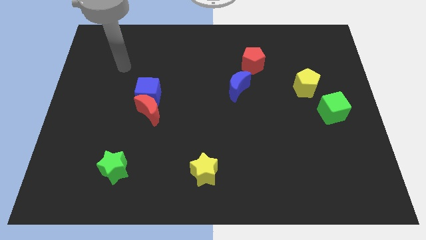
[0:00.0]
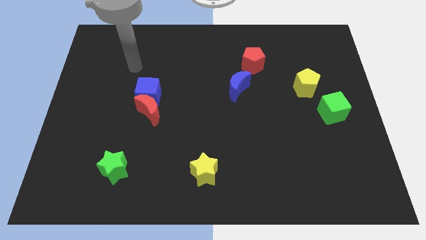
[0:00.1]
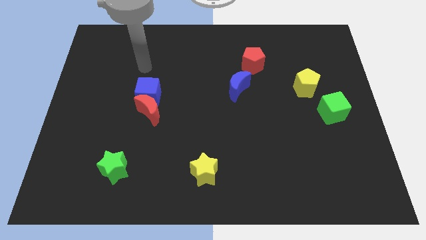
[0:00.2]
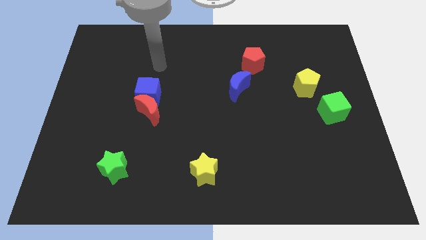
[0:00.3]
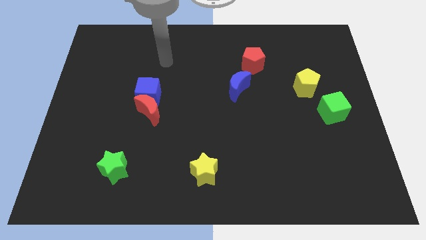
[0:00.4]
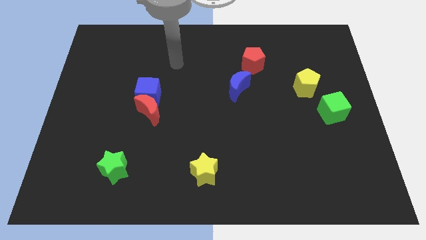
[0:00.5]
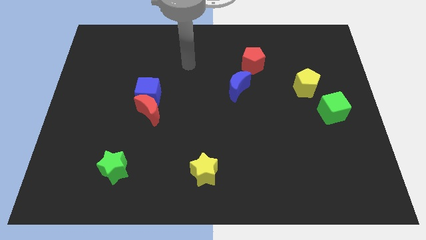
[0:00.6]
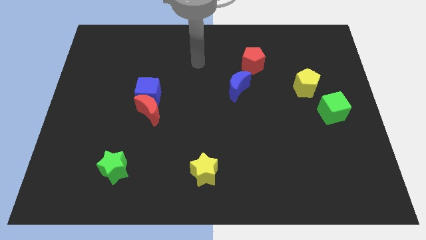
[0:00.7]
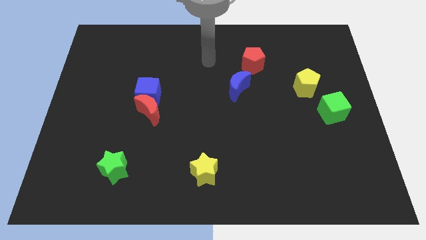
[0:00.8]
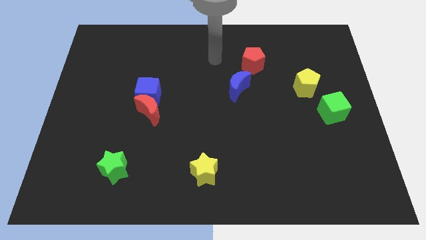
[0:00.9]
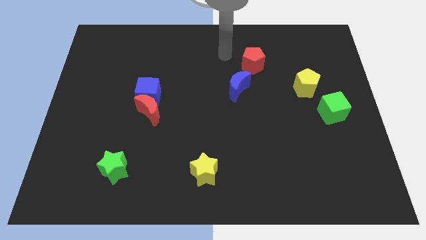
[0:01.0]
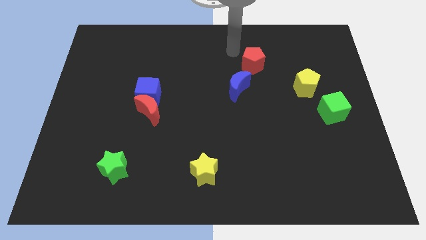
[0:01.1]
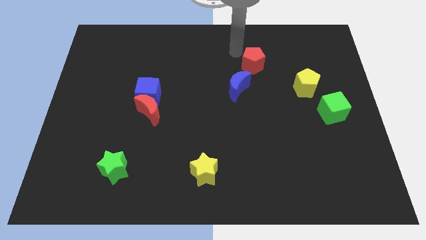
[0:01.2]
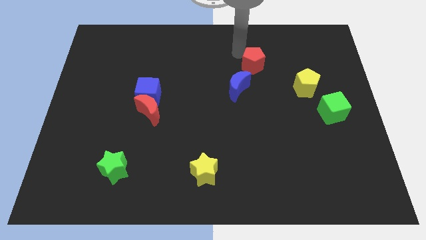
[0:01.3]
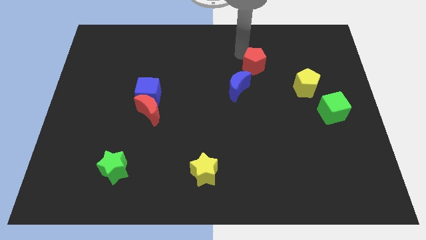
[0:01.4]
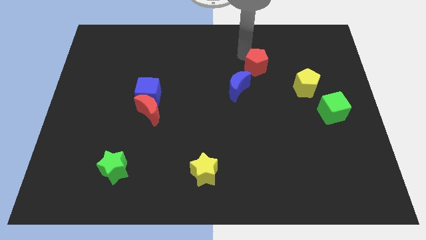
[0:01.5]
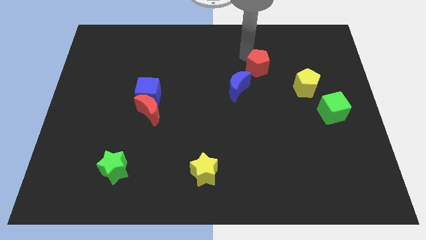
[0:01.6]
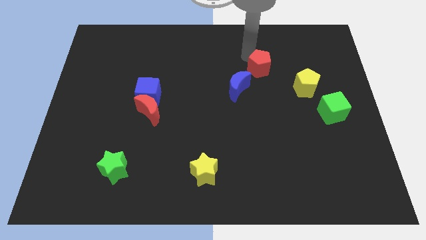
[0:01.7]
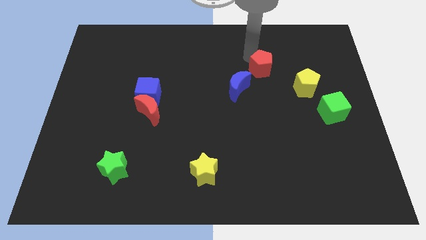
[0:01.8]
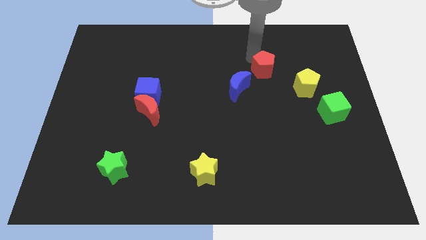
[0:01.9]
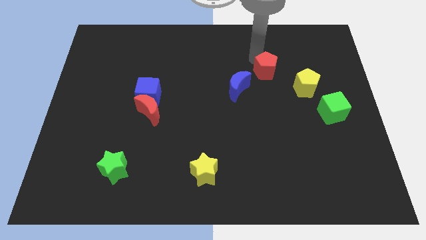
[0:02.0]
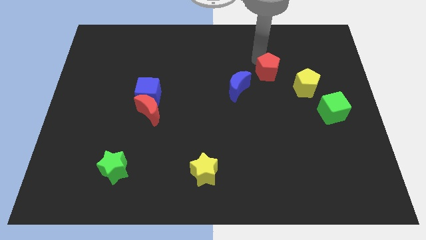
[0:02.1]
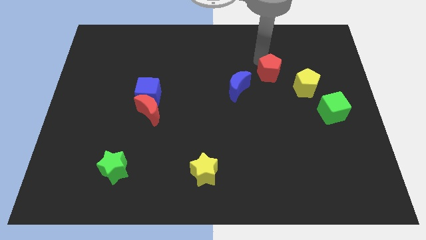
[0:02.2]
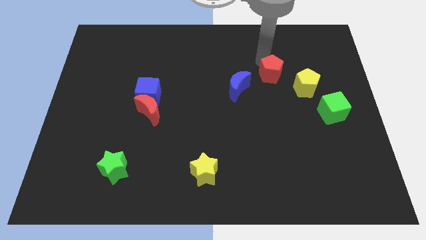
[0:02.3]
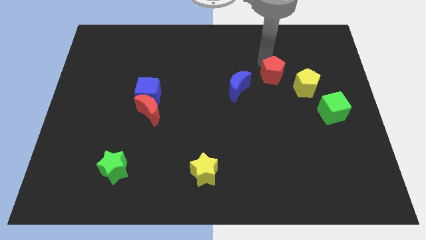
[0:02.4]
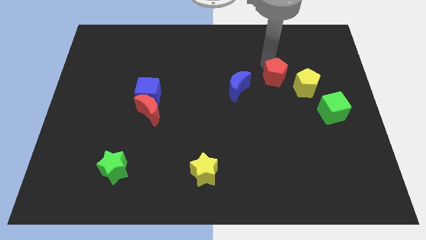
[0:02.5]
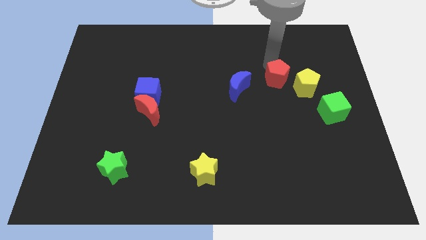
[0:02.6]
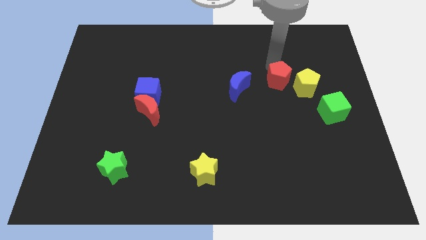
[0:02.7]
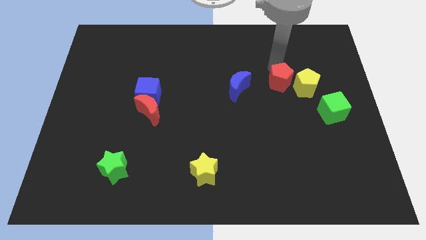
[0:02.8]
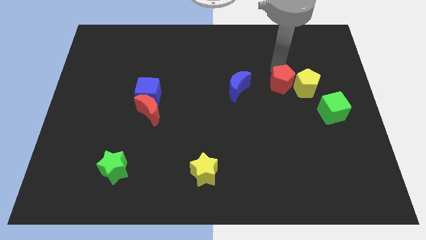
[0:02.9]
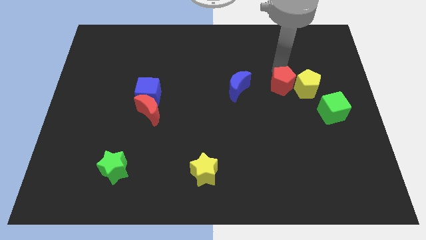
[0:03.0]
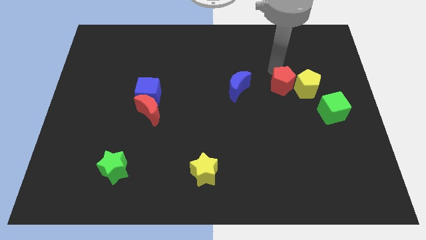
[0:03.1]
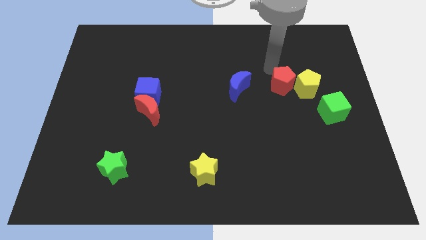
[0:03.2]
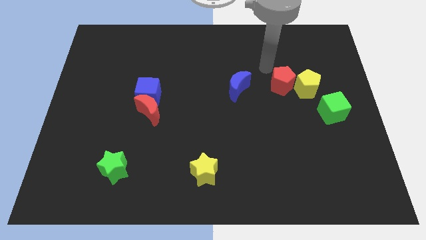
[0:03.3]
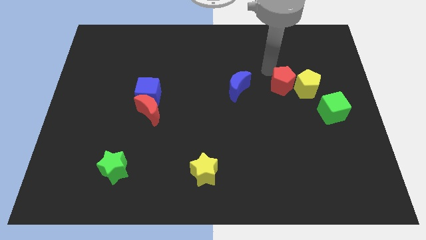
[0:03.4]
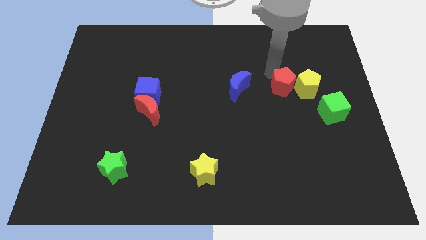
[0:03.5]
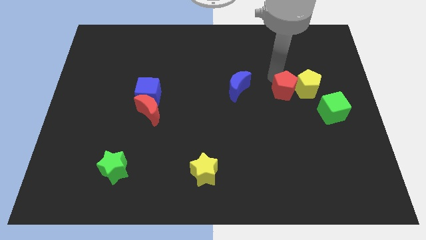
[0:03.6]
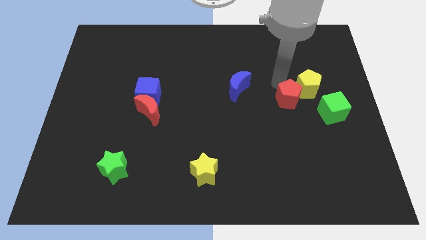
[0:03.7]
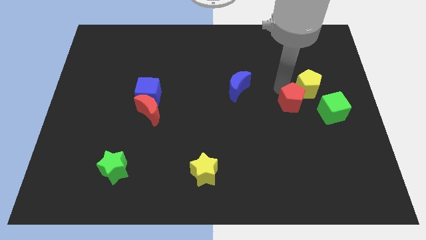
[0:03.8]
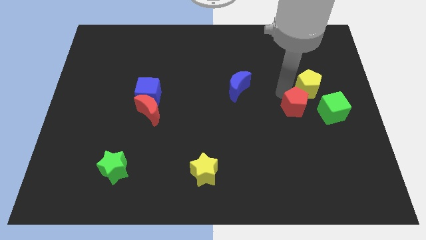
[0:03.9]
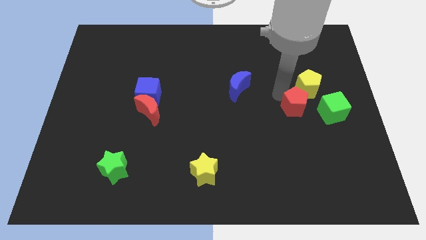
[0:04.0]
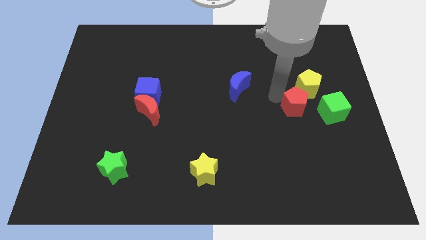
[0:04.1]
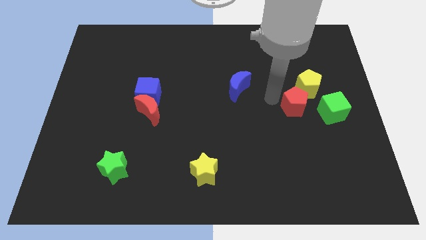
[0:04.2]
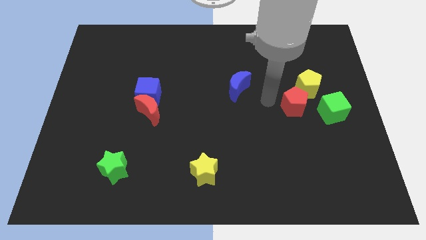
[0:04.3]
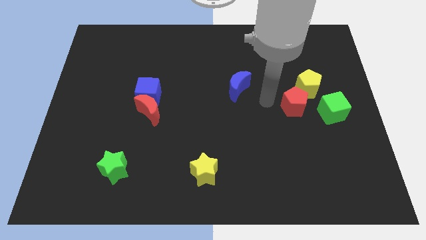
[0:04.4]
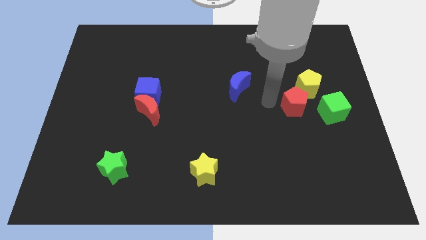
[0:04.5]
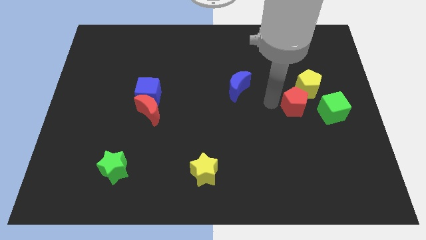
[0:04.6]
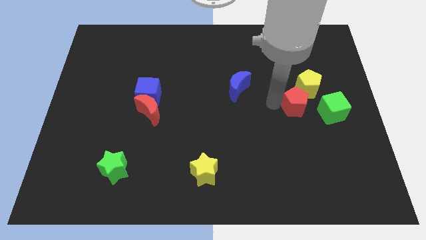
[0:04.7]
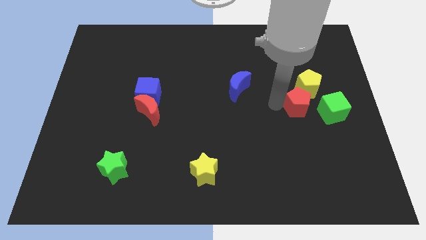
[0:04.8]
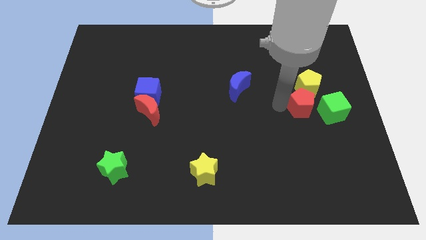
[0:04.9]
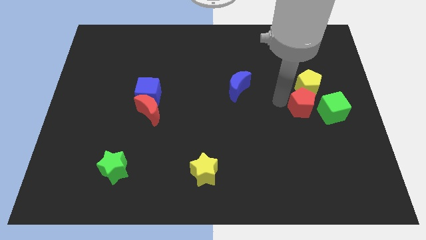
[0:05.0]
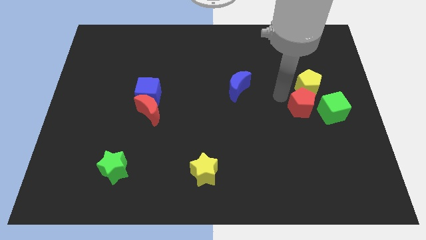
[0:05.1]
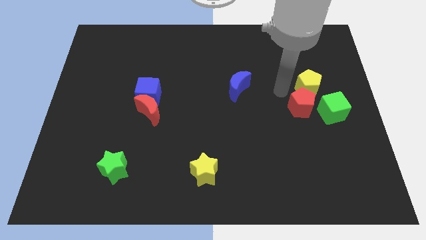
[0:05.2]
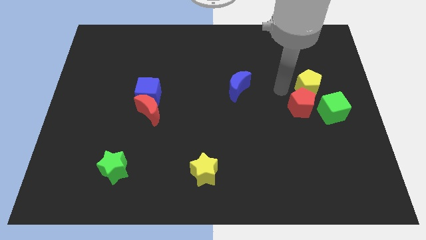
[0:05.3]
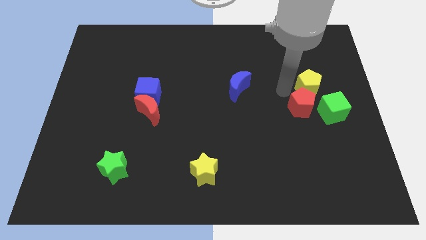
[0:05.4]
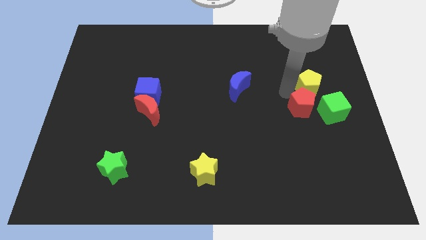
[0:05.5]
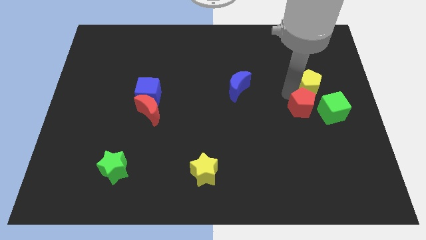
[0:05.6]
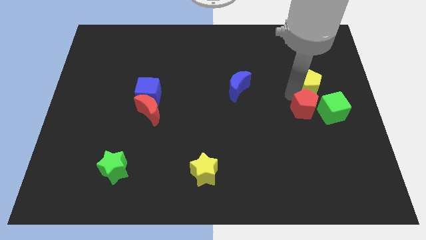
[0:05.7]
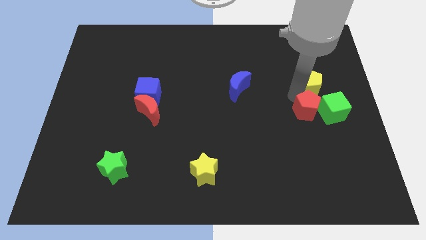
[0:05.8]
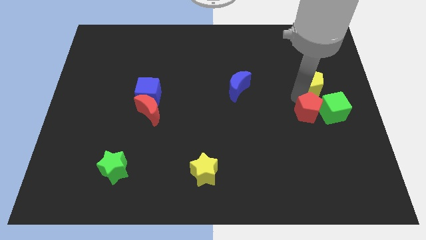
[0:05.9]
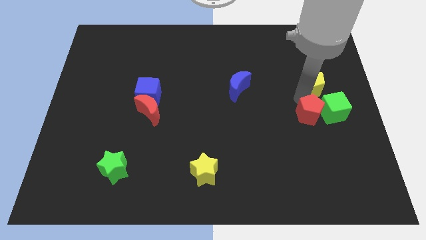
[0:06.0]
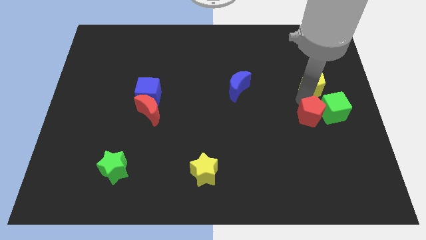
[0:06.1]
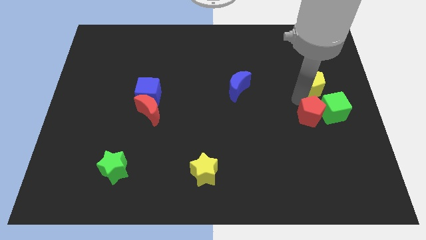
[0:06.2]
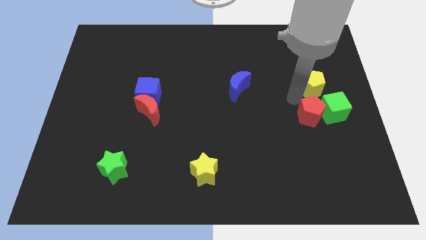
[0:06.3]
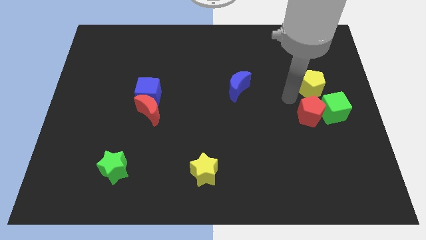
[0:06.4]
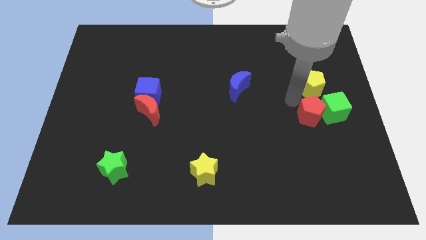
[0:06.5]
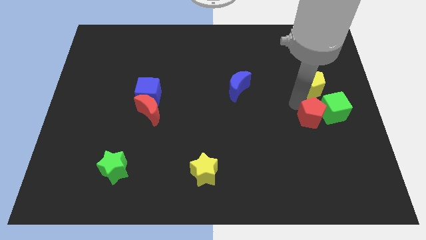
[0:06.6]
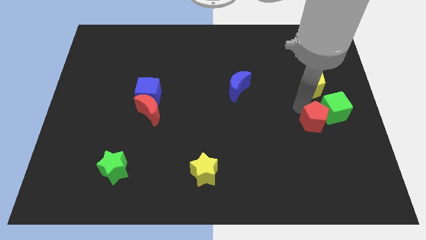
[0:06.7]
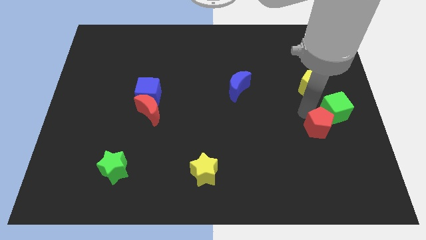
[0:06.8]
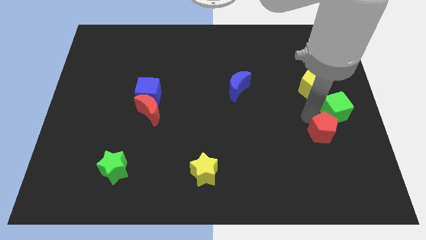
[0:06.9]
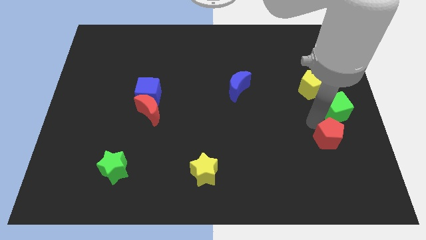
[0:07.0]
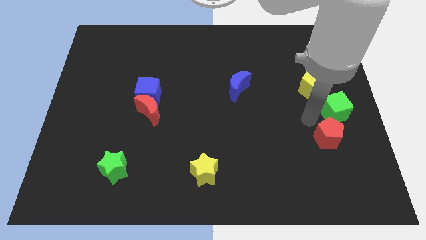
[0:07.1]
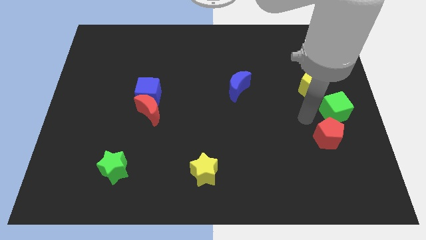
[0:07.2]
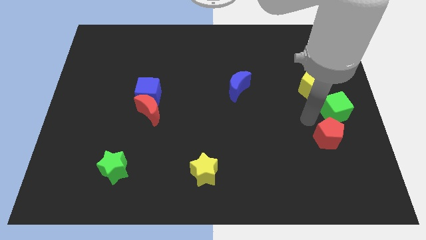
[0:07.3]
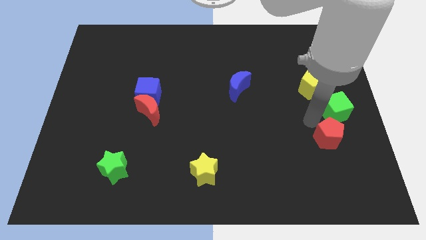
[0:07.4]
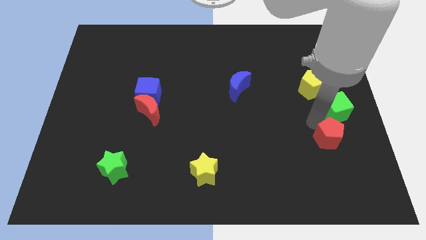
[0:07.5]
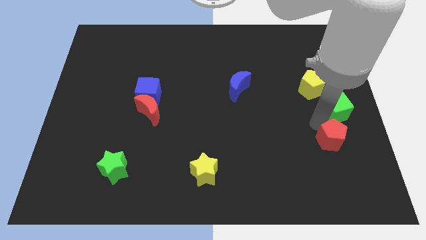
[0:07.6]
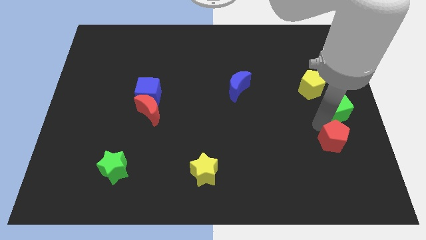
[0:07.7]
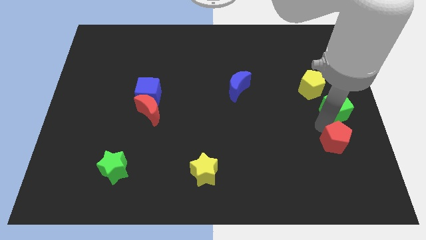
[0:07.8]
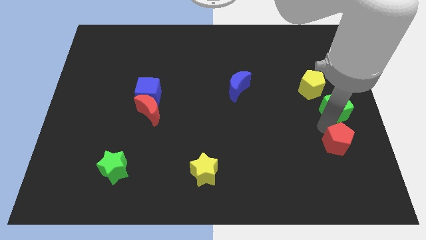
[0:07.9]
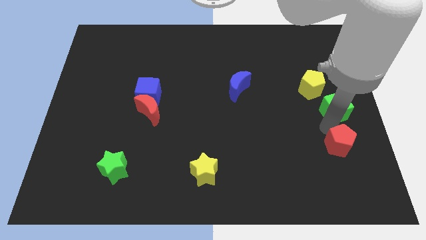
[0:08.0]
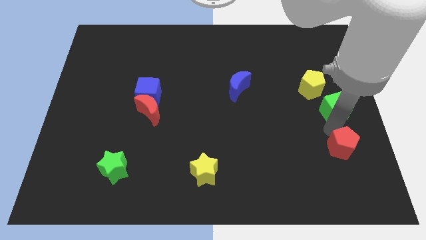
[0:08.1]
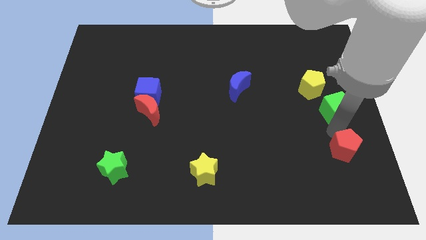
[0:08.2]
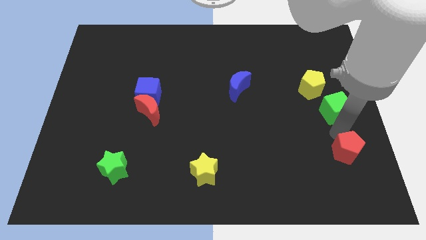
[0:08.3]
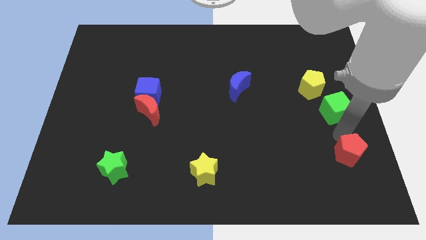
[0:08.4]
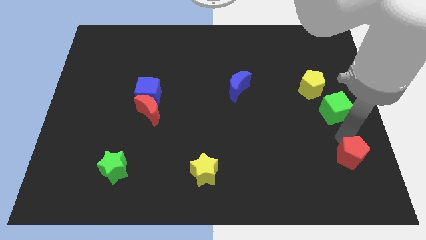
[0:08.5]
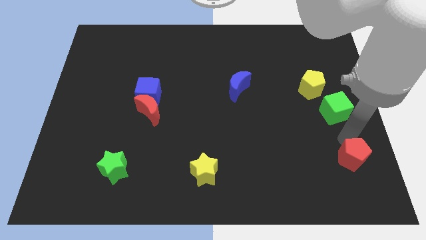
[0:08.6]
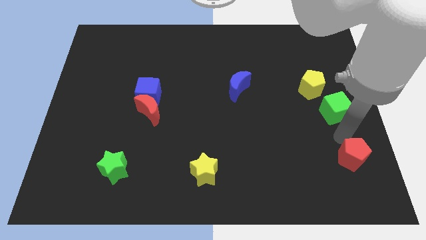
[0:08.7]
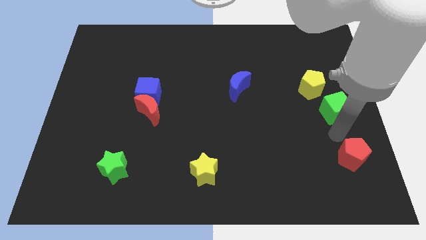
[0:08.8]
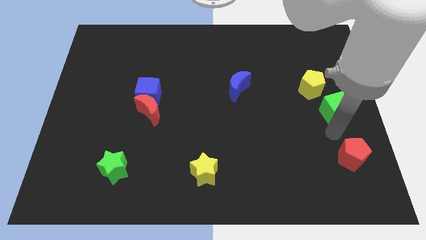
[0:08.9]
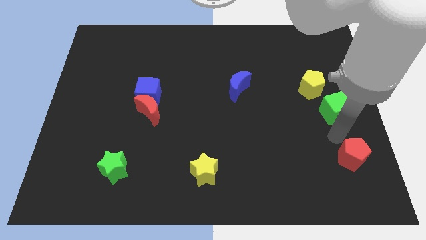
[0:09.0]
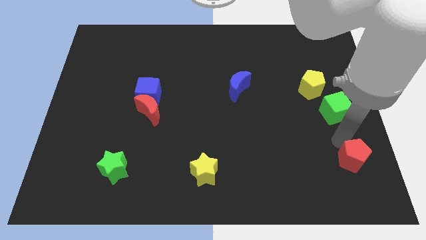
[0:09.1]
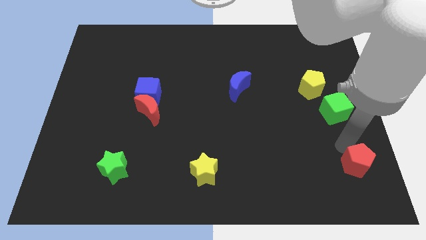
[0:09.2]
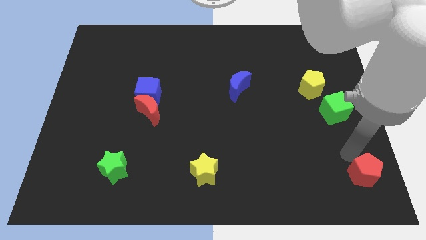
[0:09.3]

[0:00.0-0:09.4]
slide the red pentagon to the bottom right
